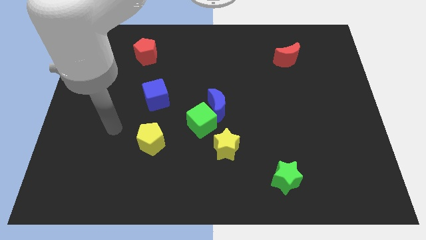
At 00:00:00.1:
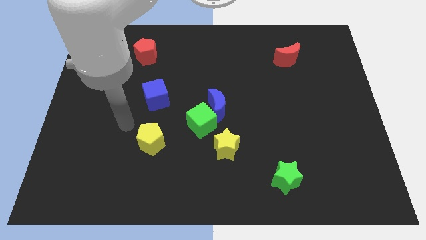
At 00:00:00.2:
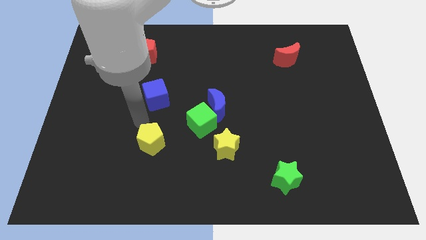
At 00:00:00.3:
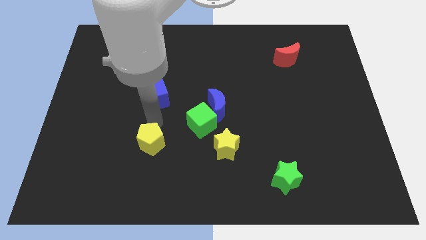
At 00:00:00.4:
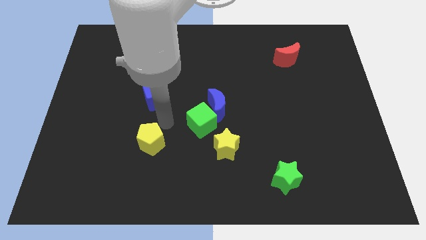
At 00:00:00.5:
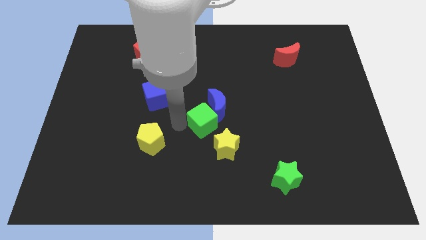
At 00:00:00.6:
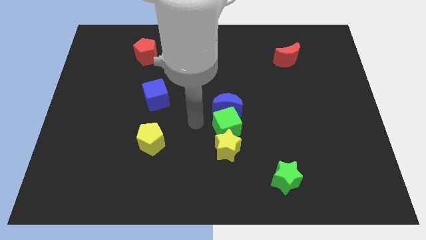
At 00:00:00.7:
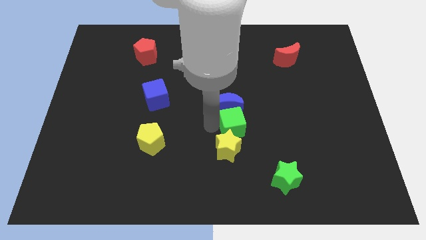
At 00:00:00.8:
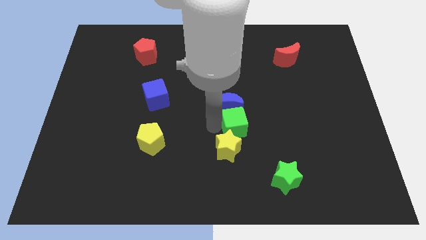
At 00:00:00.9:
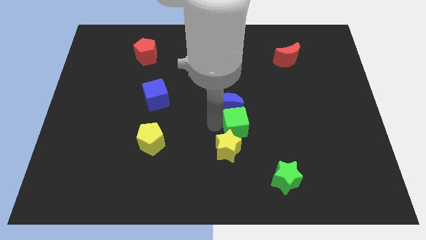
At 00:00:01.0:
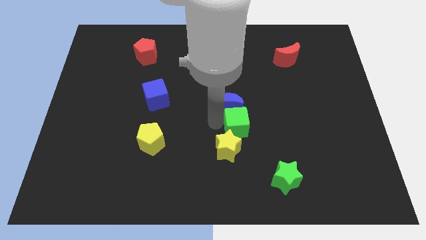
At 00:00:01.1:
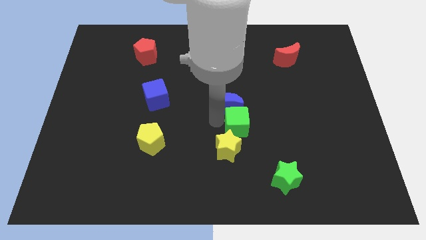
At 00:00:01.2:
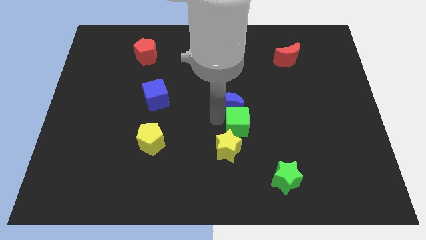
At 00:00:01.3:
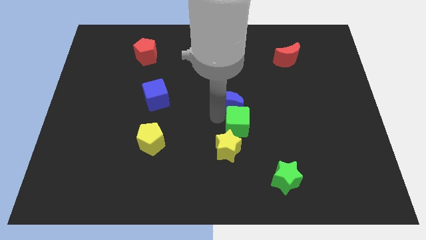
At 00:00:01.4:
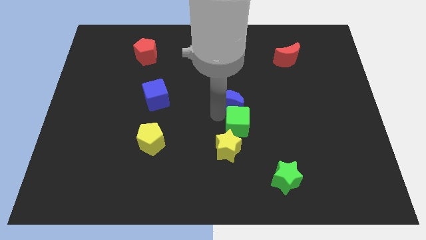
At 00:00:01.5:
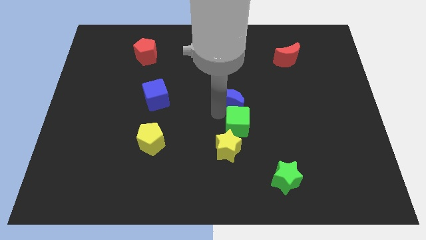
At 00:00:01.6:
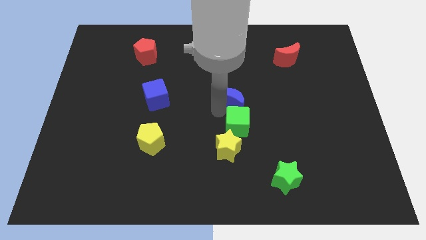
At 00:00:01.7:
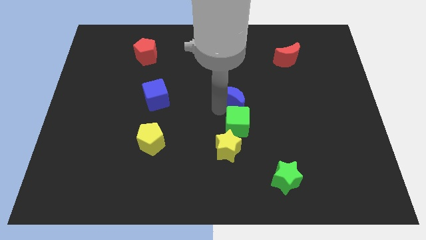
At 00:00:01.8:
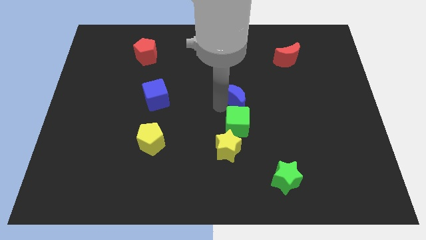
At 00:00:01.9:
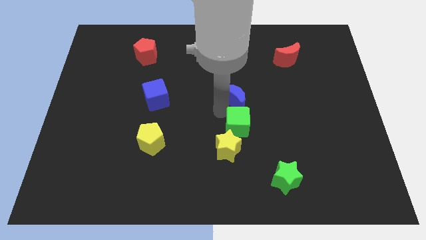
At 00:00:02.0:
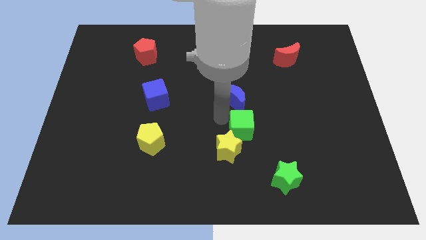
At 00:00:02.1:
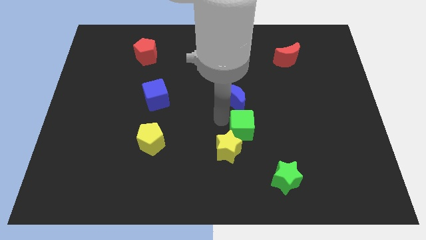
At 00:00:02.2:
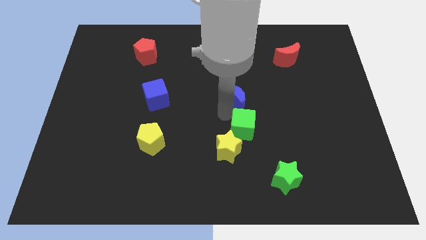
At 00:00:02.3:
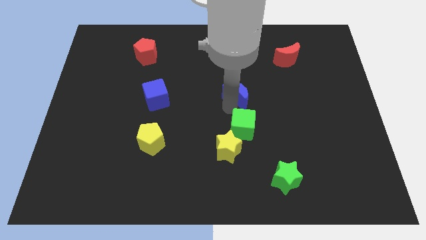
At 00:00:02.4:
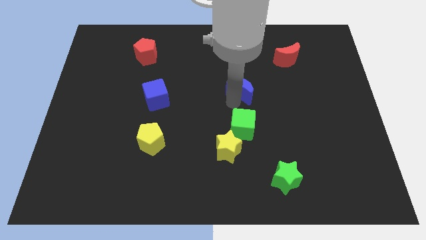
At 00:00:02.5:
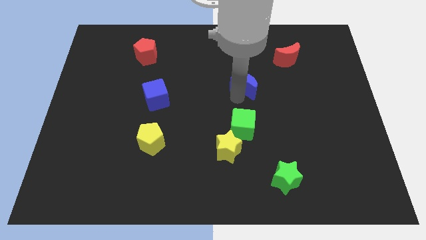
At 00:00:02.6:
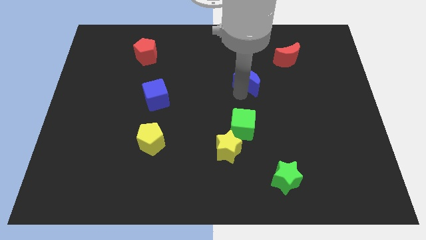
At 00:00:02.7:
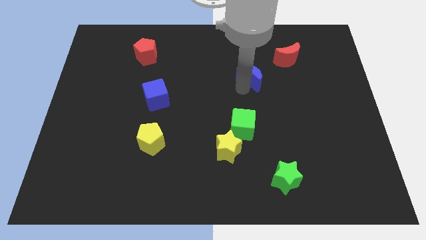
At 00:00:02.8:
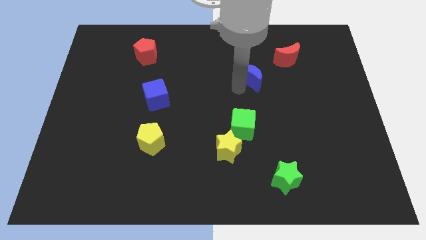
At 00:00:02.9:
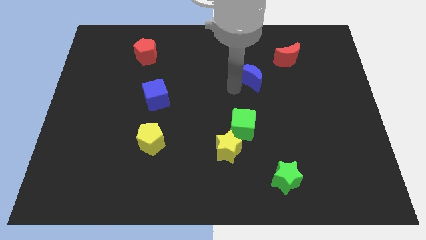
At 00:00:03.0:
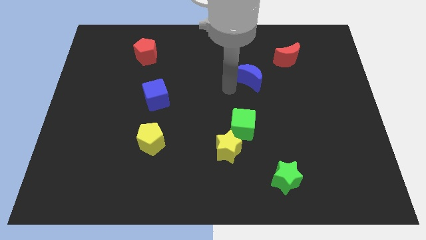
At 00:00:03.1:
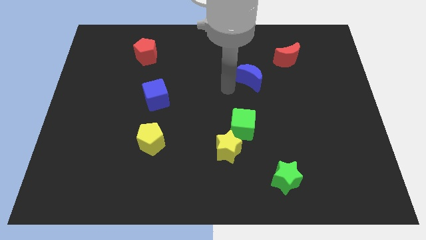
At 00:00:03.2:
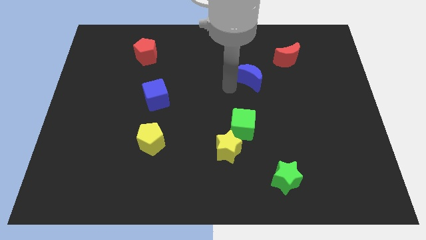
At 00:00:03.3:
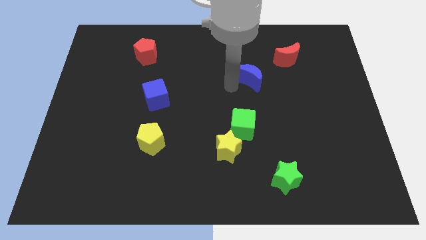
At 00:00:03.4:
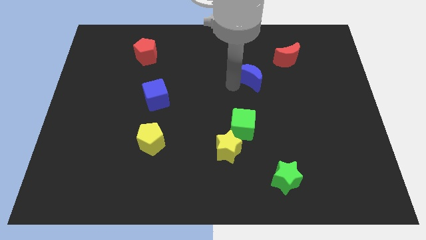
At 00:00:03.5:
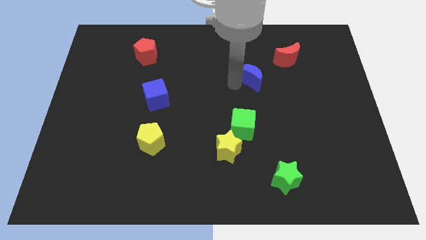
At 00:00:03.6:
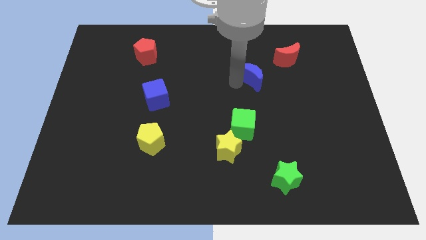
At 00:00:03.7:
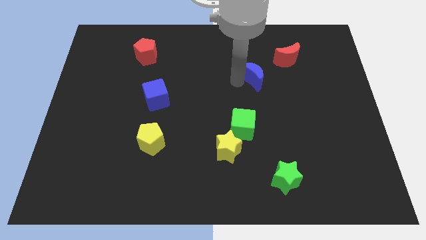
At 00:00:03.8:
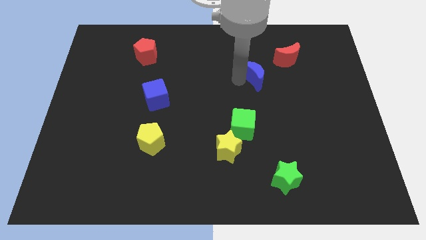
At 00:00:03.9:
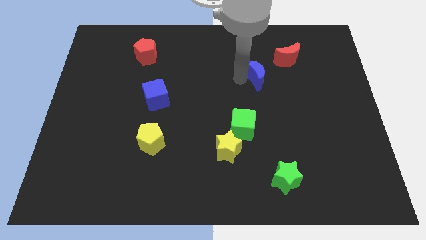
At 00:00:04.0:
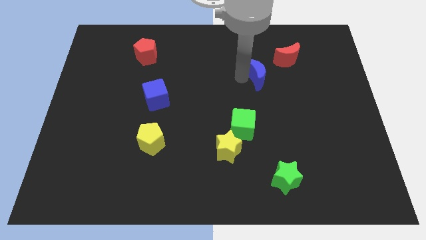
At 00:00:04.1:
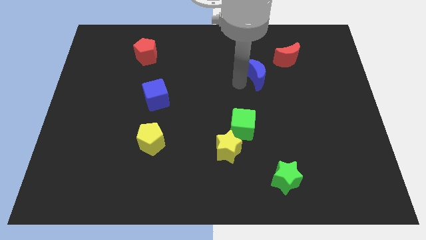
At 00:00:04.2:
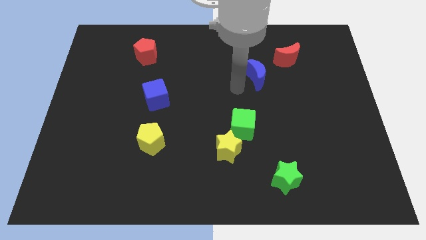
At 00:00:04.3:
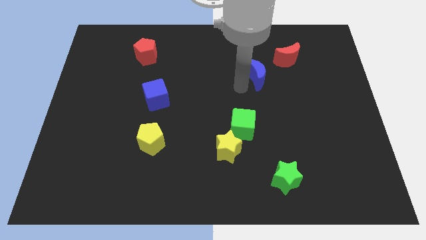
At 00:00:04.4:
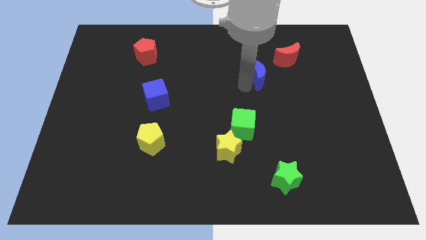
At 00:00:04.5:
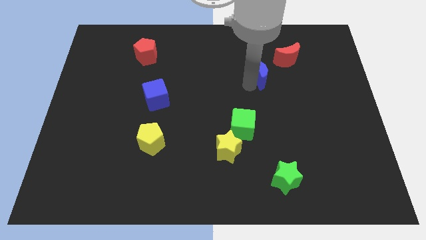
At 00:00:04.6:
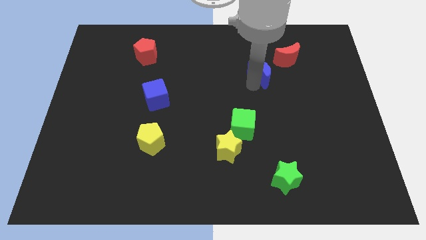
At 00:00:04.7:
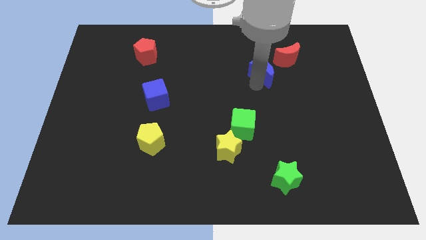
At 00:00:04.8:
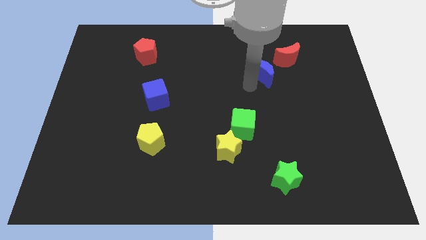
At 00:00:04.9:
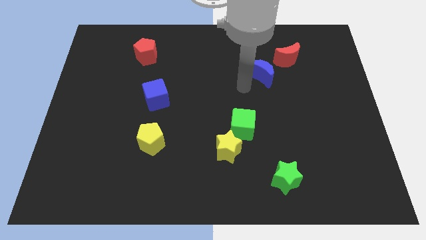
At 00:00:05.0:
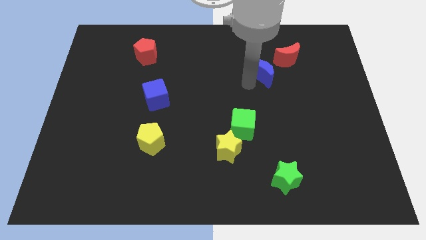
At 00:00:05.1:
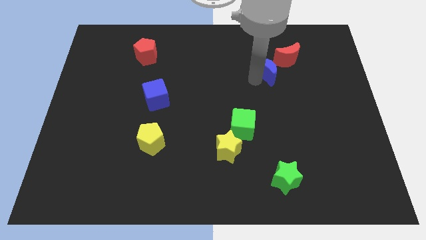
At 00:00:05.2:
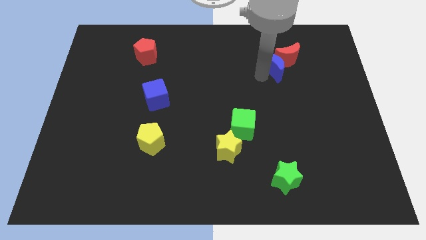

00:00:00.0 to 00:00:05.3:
push the blue moon next to the red moon

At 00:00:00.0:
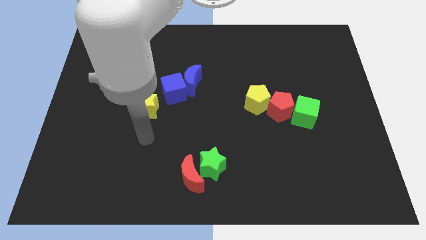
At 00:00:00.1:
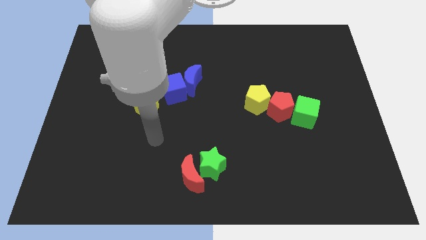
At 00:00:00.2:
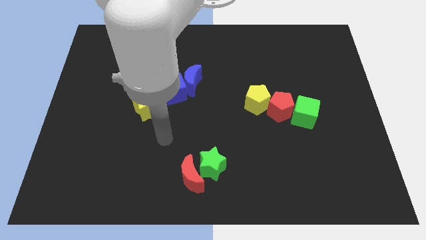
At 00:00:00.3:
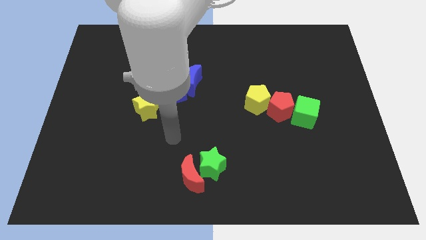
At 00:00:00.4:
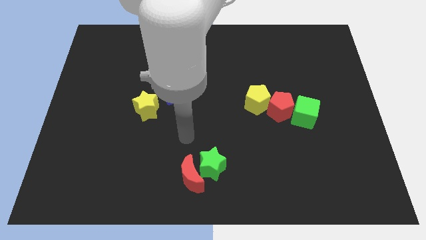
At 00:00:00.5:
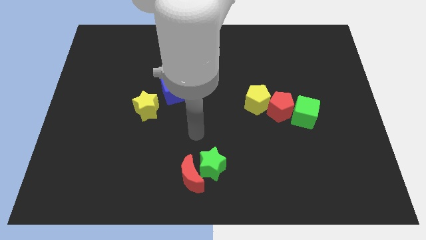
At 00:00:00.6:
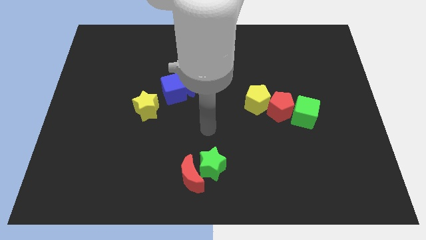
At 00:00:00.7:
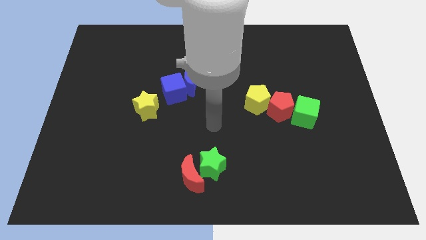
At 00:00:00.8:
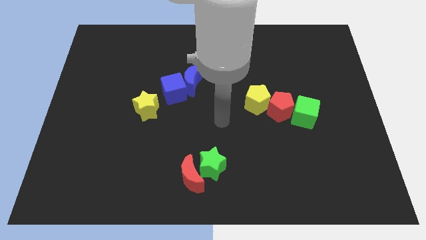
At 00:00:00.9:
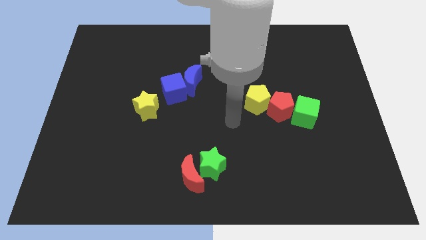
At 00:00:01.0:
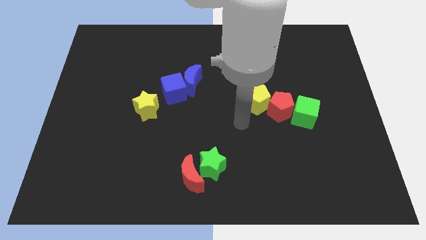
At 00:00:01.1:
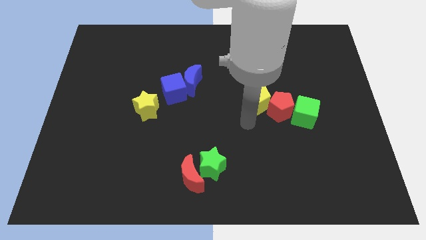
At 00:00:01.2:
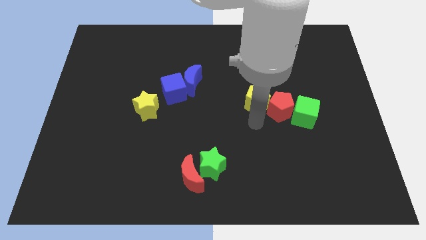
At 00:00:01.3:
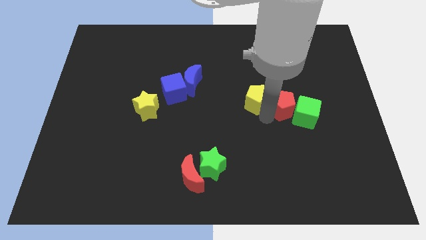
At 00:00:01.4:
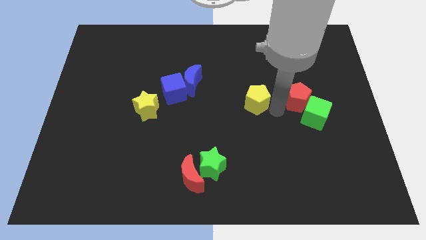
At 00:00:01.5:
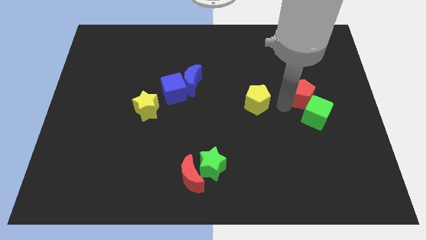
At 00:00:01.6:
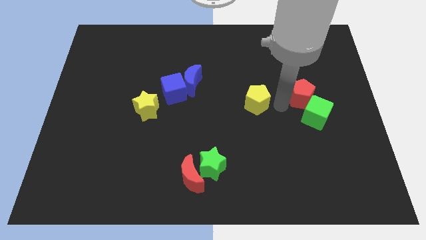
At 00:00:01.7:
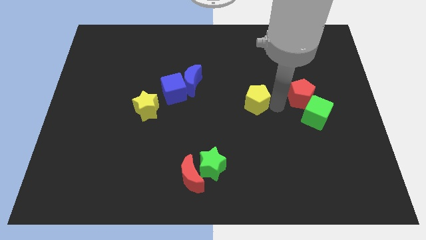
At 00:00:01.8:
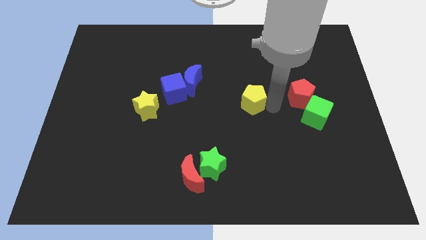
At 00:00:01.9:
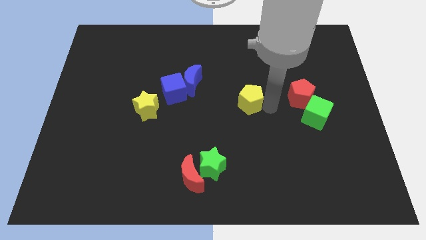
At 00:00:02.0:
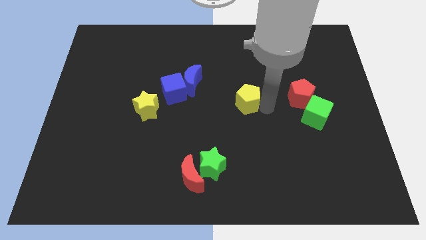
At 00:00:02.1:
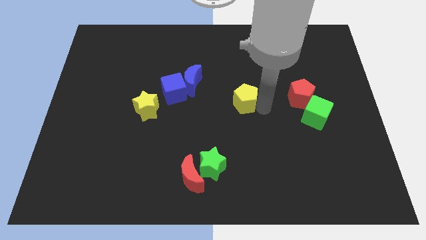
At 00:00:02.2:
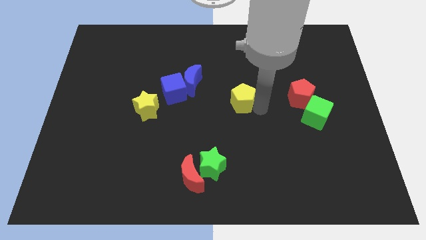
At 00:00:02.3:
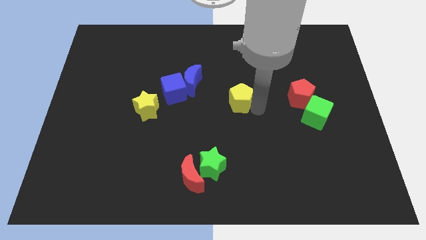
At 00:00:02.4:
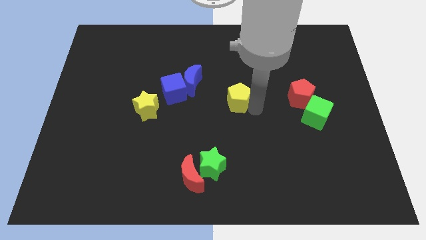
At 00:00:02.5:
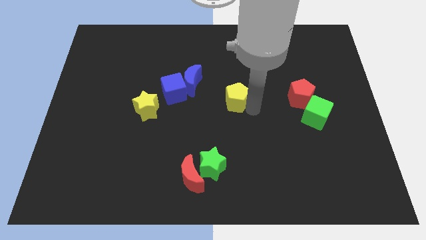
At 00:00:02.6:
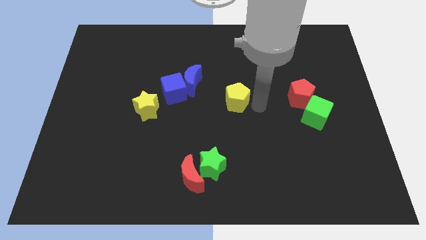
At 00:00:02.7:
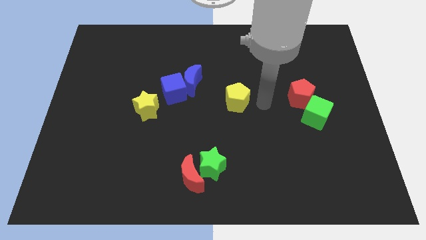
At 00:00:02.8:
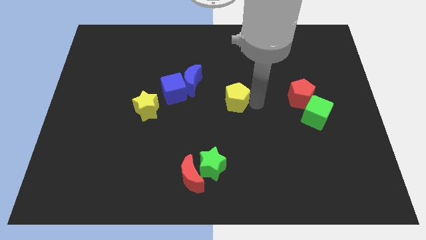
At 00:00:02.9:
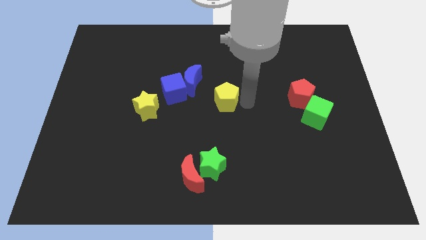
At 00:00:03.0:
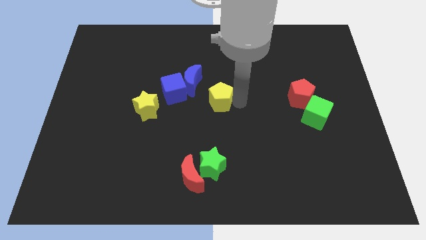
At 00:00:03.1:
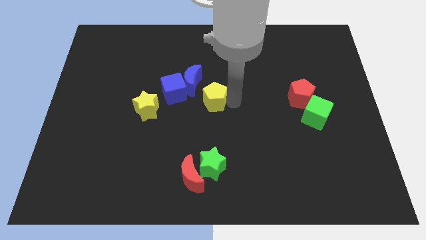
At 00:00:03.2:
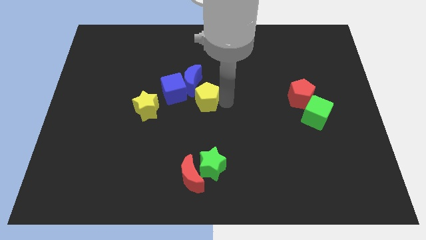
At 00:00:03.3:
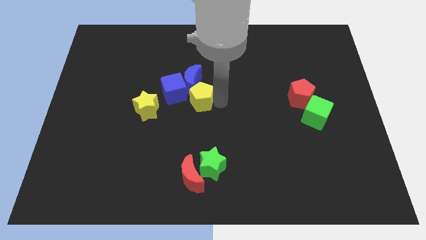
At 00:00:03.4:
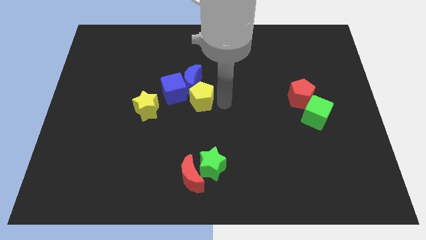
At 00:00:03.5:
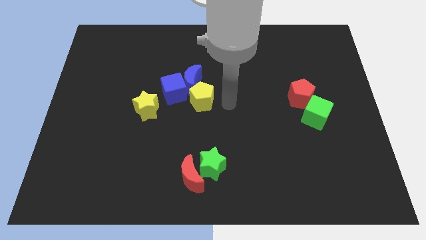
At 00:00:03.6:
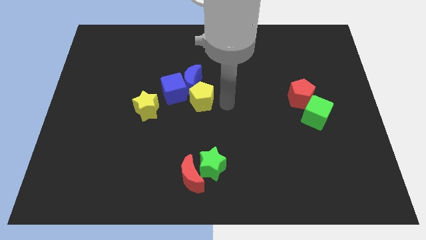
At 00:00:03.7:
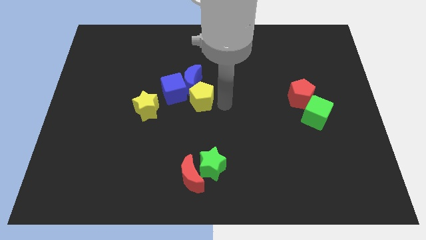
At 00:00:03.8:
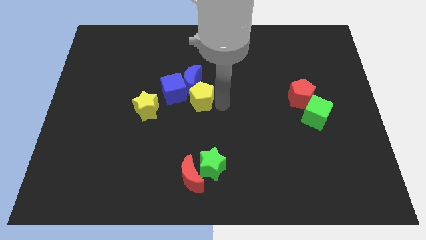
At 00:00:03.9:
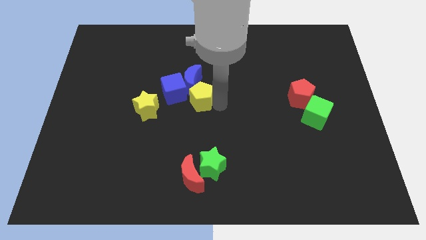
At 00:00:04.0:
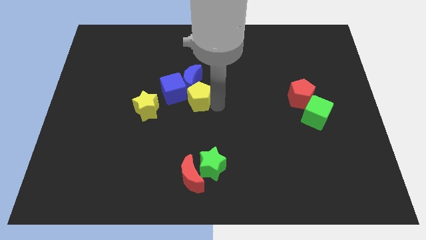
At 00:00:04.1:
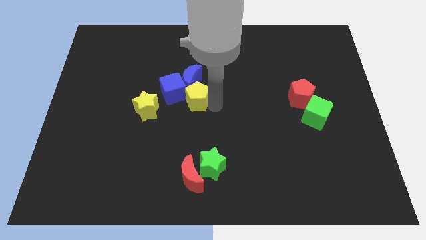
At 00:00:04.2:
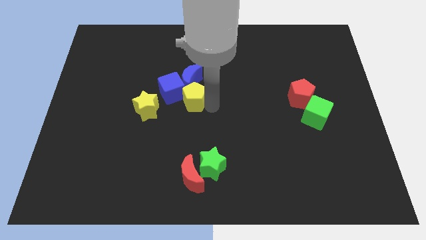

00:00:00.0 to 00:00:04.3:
push the yellow pentagon towards the blue cube
